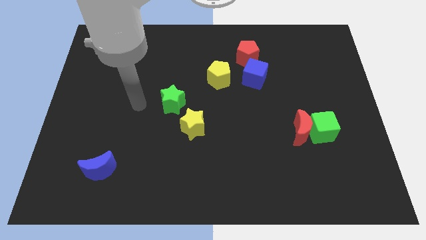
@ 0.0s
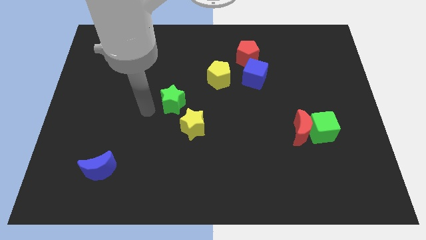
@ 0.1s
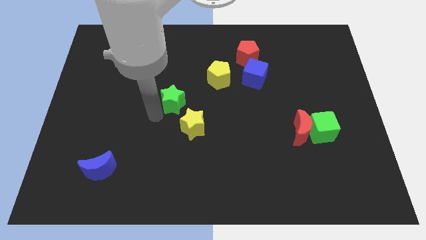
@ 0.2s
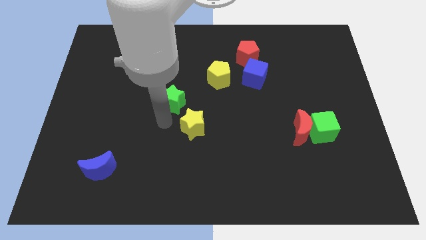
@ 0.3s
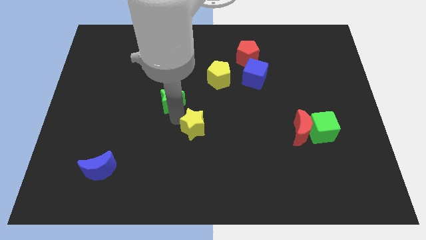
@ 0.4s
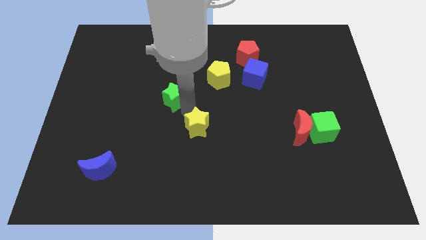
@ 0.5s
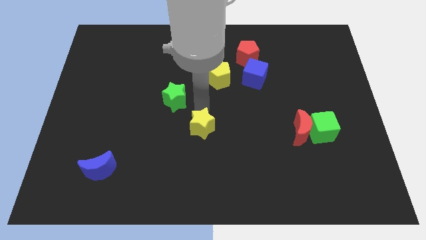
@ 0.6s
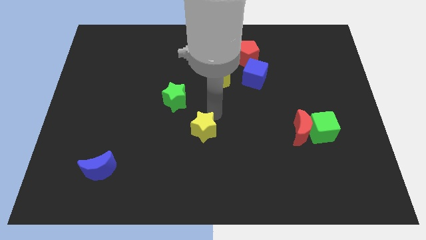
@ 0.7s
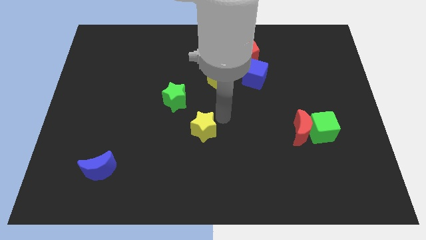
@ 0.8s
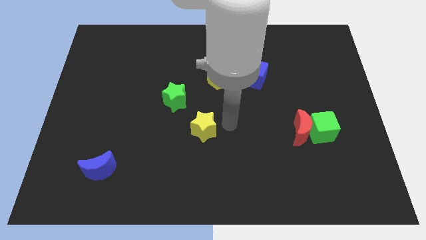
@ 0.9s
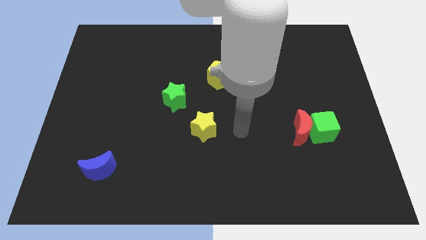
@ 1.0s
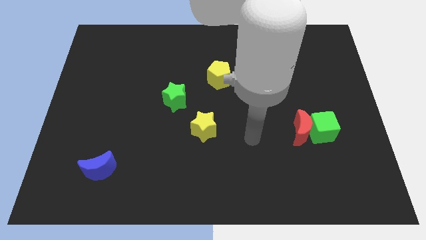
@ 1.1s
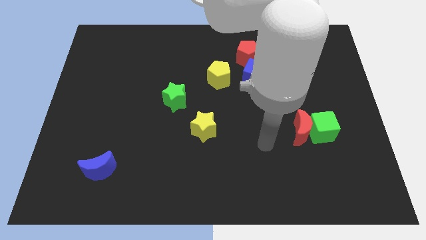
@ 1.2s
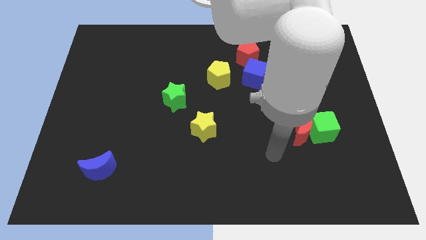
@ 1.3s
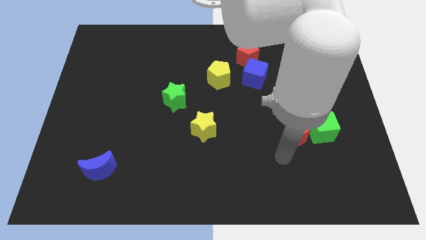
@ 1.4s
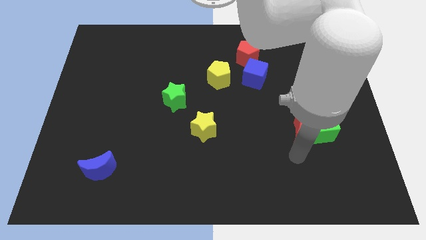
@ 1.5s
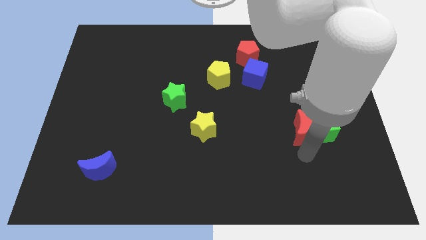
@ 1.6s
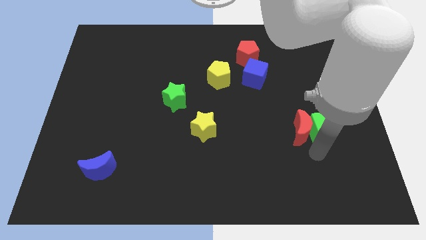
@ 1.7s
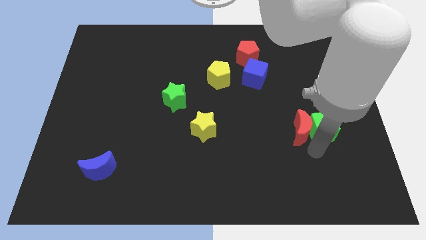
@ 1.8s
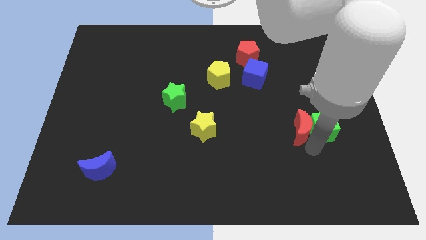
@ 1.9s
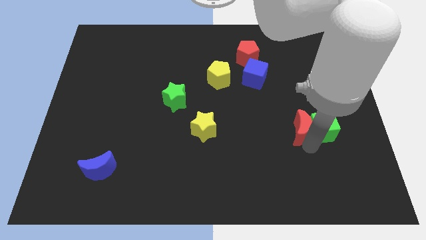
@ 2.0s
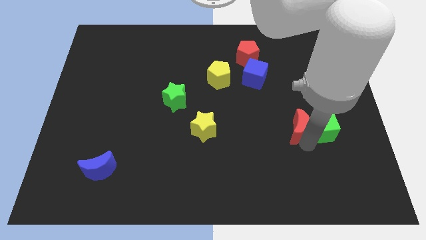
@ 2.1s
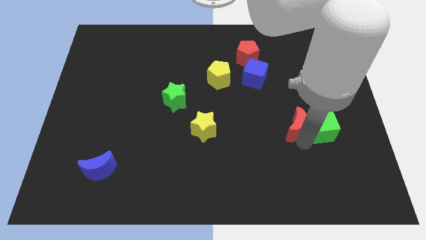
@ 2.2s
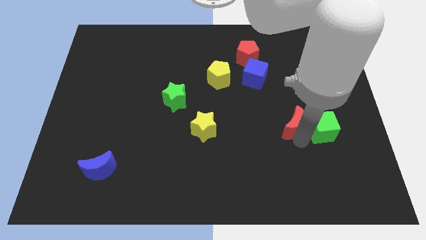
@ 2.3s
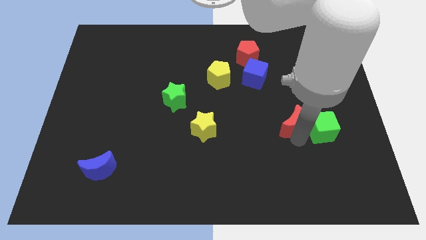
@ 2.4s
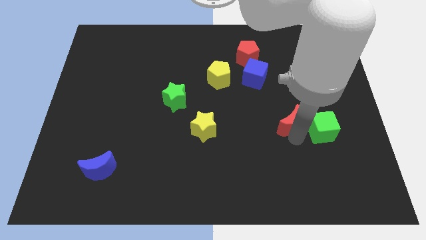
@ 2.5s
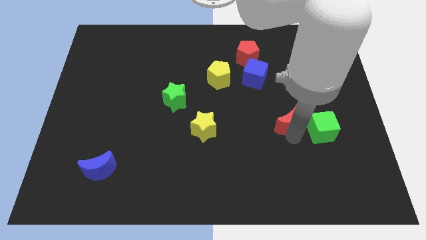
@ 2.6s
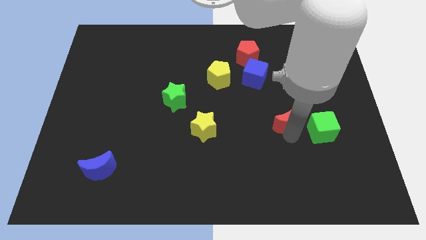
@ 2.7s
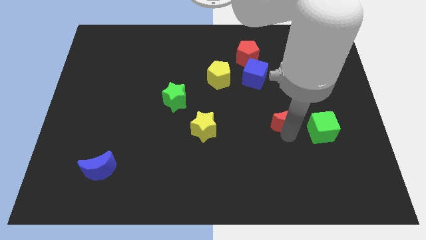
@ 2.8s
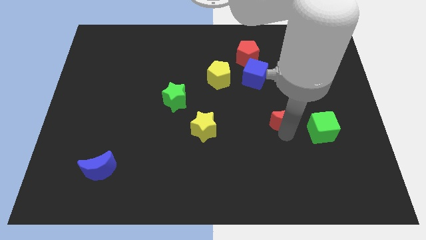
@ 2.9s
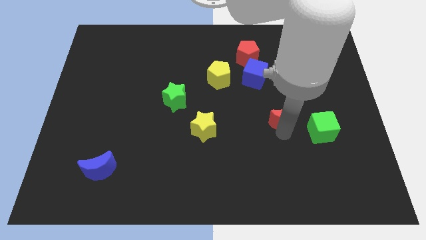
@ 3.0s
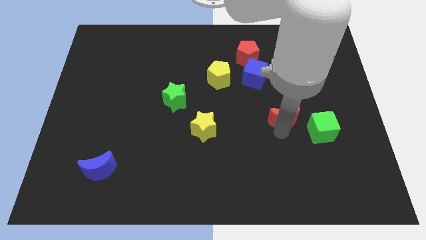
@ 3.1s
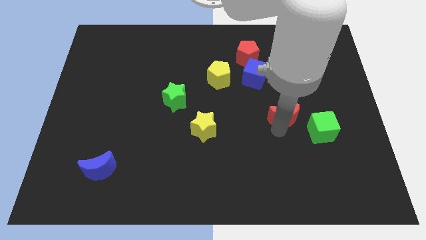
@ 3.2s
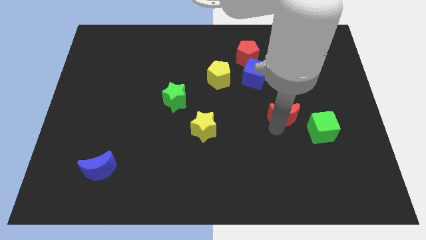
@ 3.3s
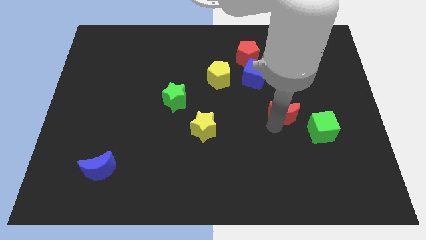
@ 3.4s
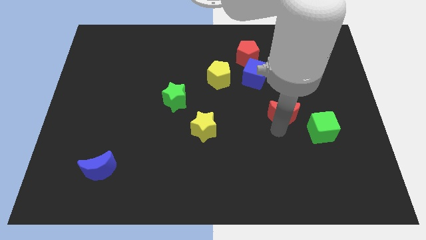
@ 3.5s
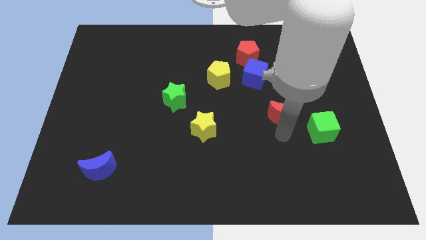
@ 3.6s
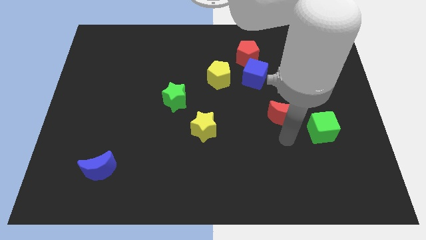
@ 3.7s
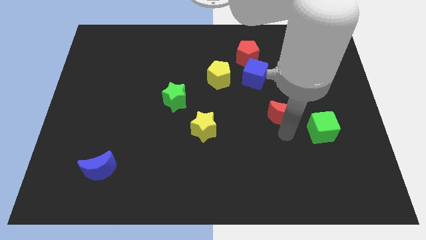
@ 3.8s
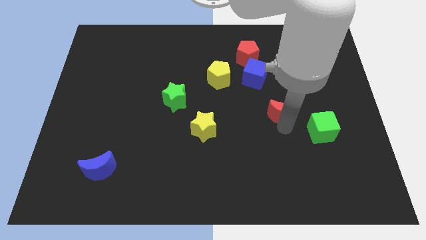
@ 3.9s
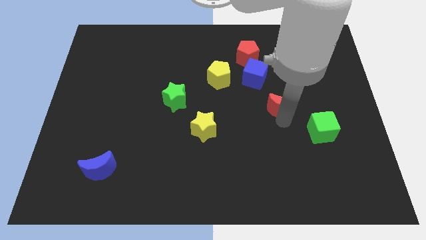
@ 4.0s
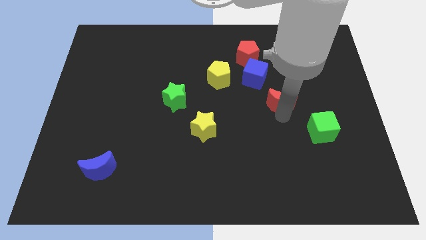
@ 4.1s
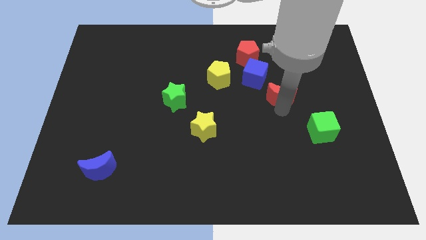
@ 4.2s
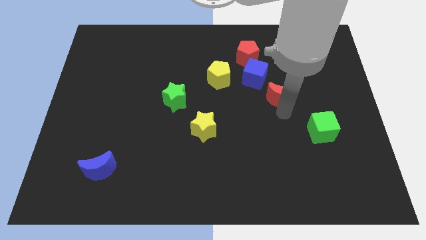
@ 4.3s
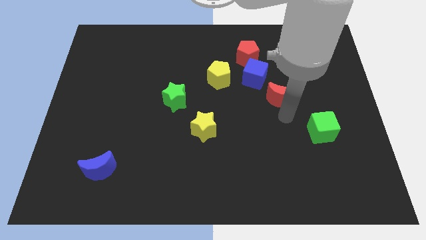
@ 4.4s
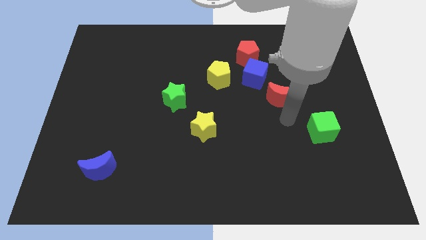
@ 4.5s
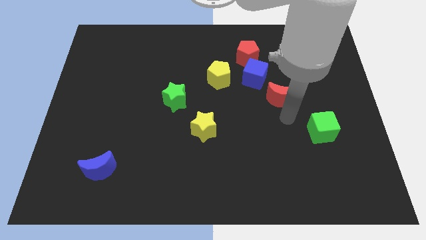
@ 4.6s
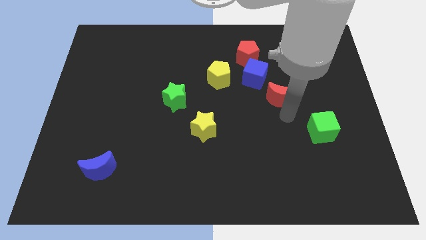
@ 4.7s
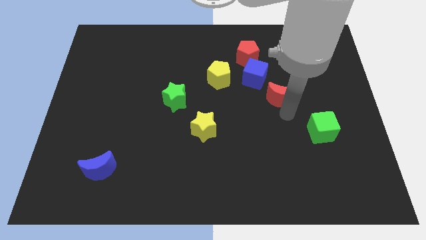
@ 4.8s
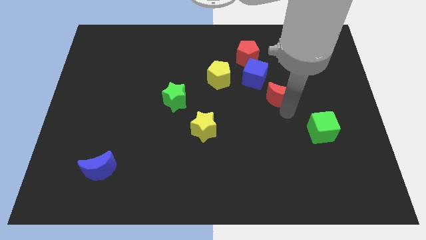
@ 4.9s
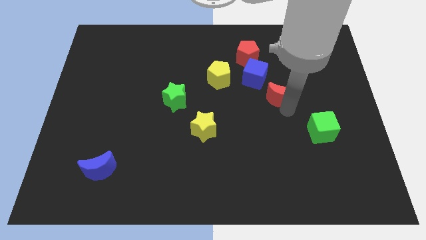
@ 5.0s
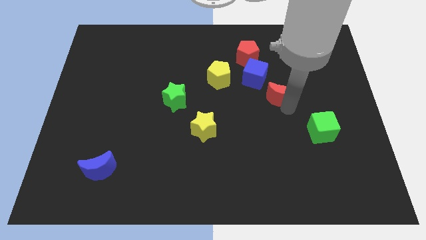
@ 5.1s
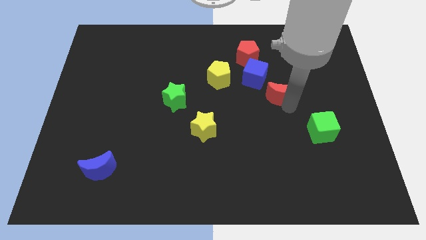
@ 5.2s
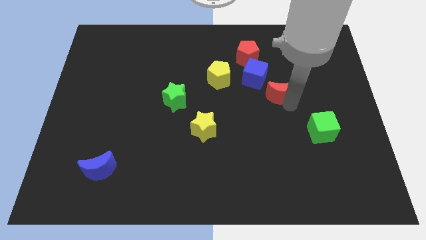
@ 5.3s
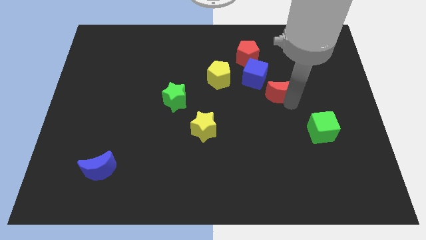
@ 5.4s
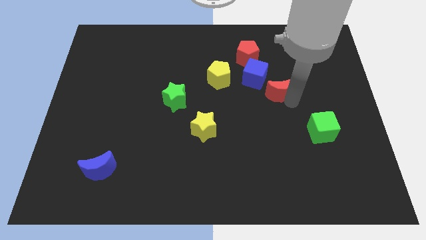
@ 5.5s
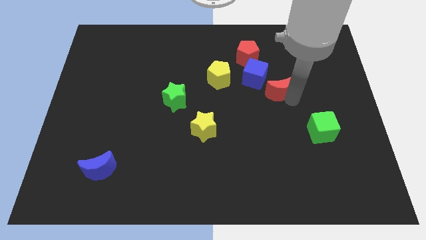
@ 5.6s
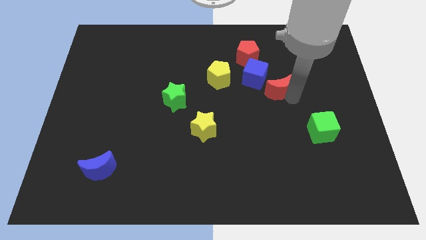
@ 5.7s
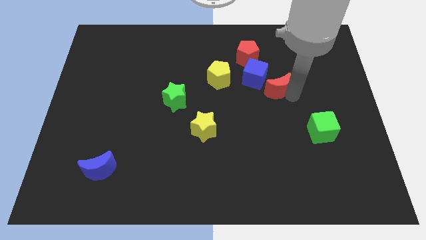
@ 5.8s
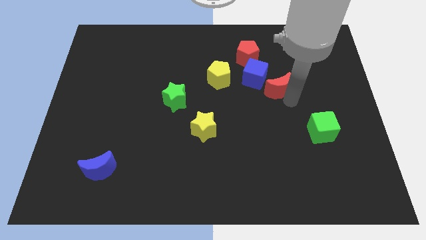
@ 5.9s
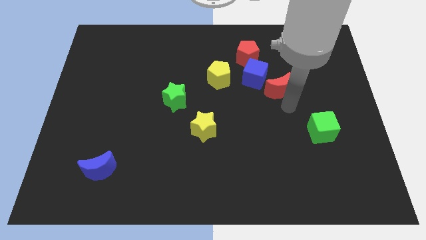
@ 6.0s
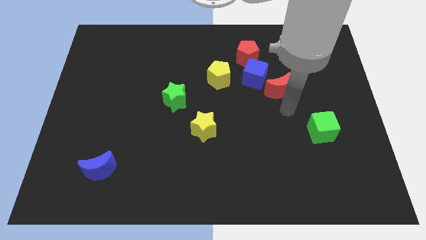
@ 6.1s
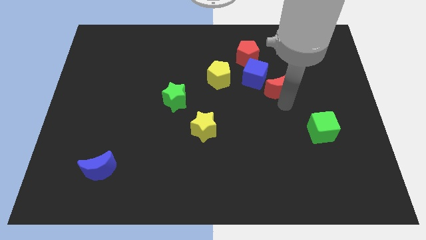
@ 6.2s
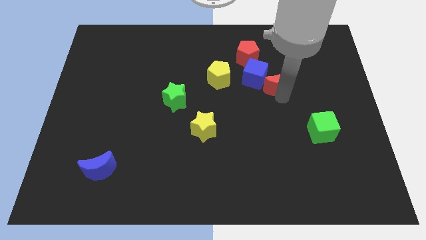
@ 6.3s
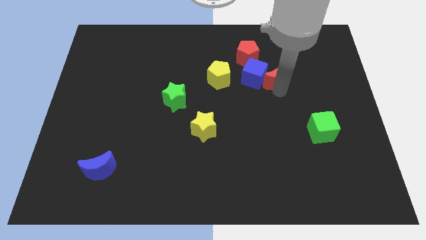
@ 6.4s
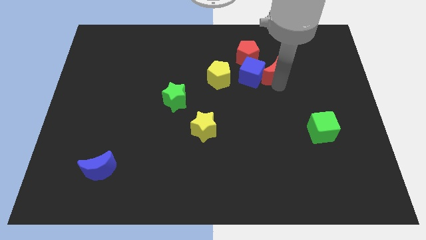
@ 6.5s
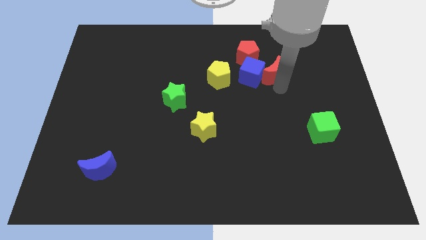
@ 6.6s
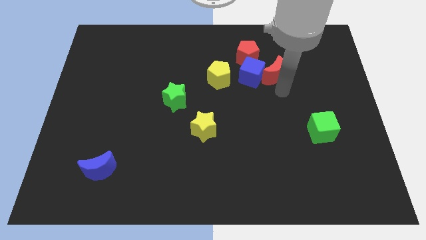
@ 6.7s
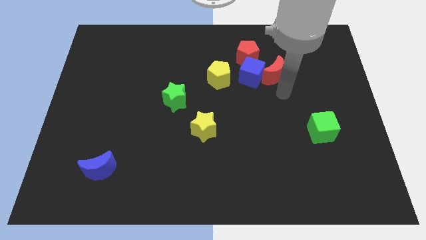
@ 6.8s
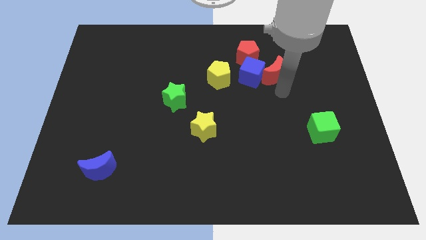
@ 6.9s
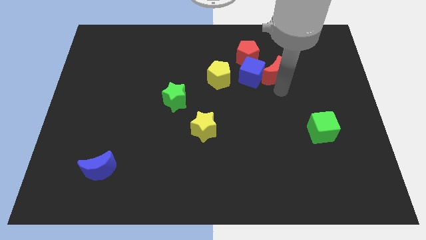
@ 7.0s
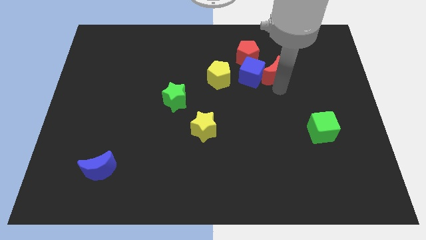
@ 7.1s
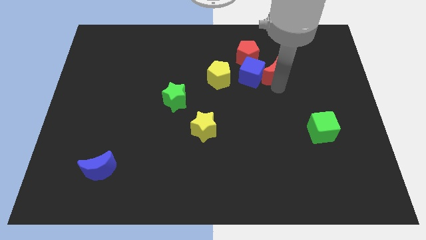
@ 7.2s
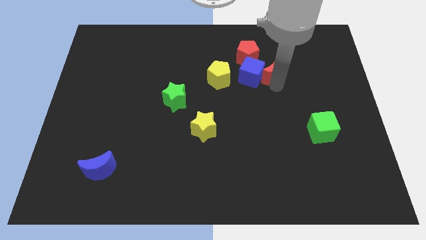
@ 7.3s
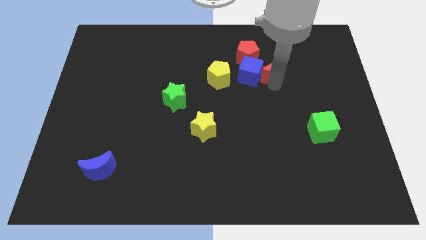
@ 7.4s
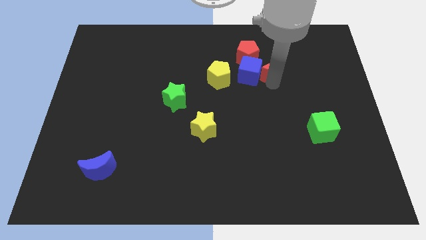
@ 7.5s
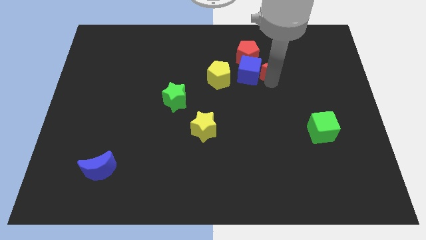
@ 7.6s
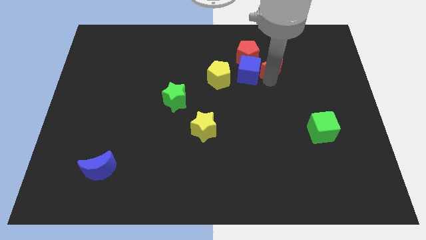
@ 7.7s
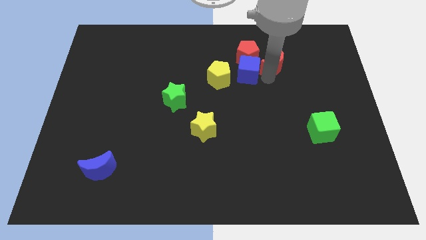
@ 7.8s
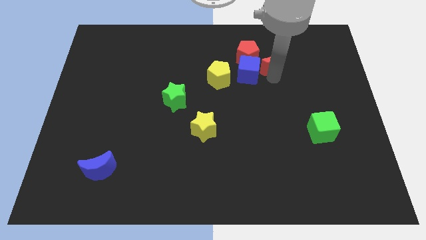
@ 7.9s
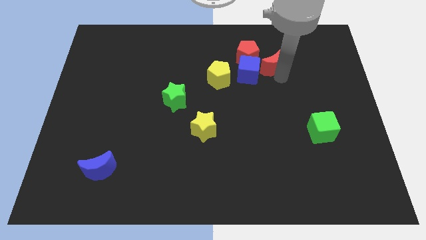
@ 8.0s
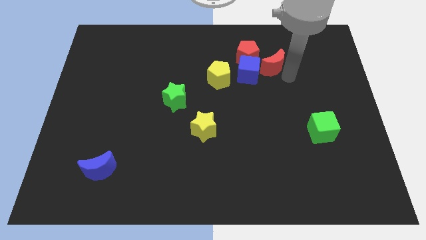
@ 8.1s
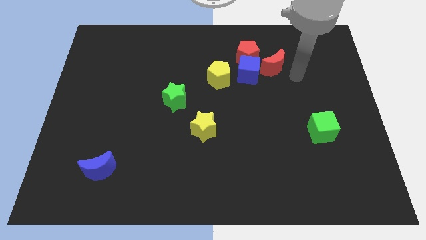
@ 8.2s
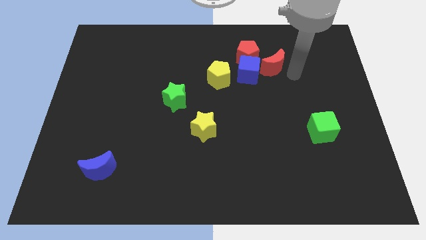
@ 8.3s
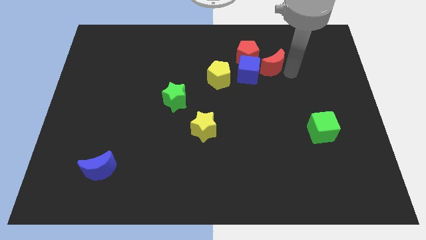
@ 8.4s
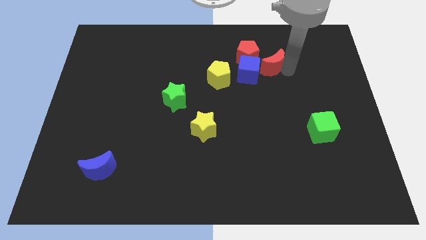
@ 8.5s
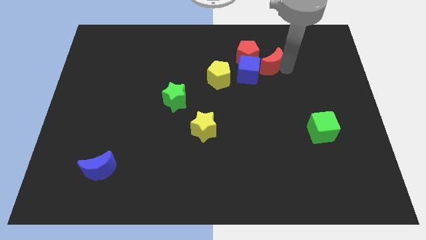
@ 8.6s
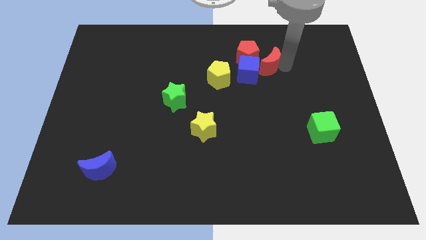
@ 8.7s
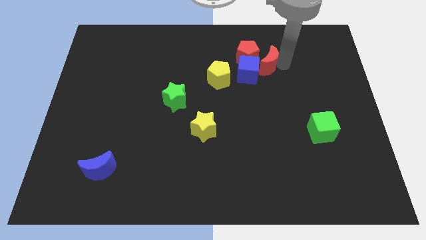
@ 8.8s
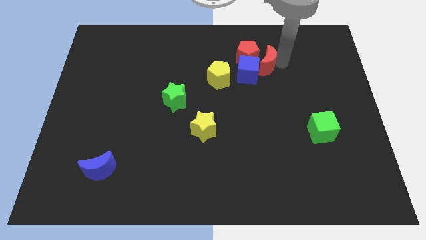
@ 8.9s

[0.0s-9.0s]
slide the red moon towards the red pentagon
